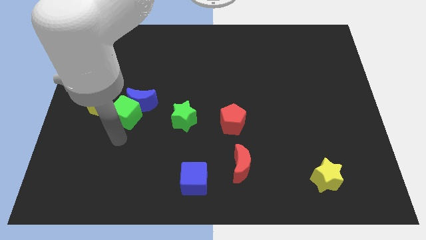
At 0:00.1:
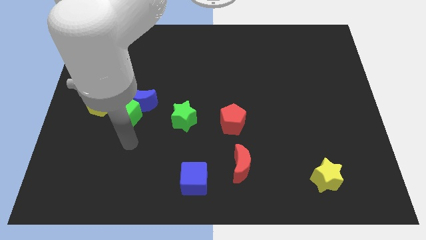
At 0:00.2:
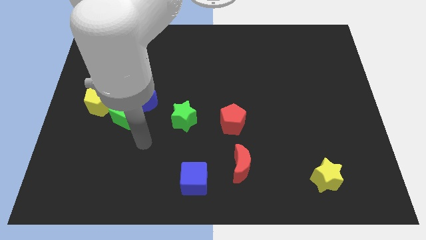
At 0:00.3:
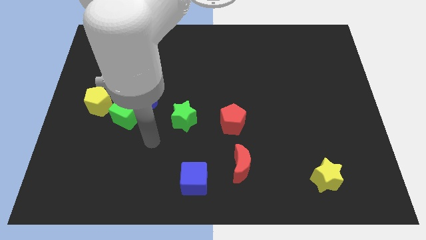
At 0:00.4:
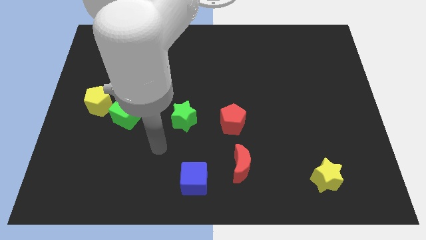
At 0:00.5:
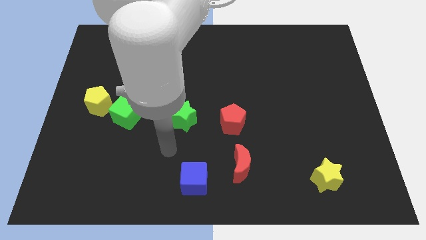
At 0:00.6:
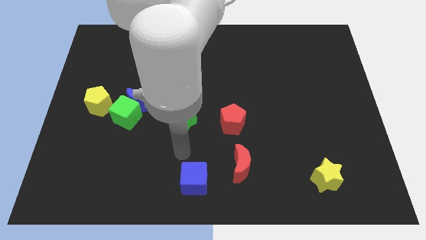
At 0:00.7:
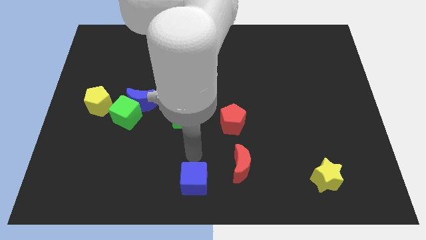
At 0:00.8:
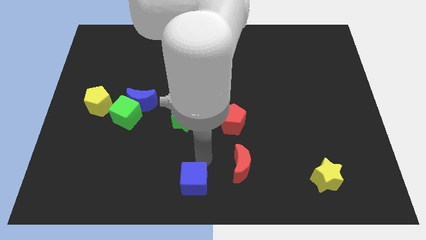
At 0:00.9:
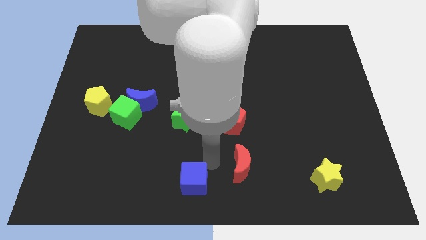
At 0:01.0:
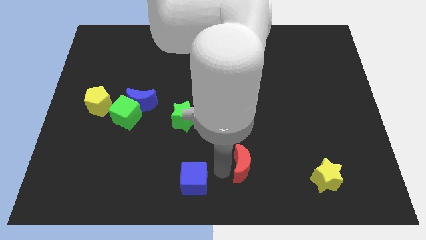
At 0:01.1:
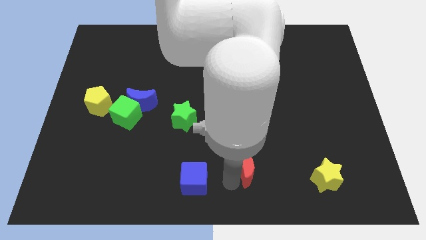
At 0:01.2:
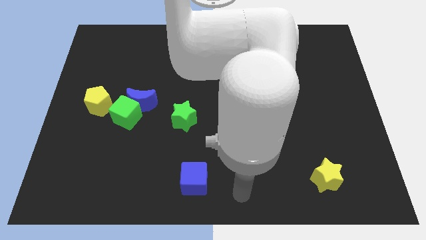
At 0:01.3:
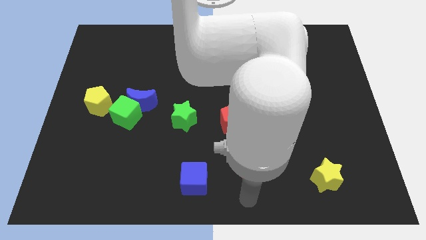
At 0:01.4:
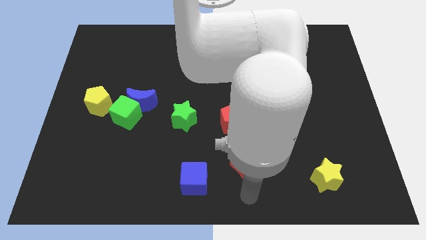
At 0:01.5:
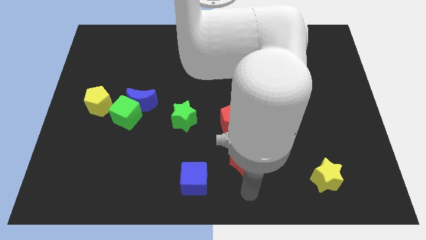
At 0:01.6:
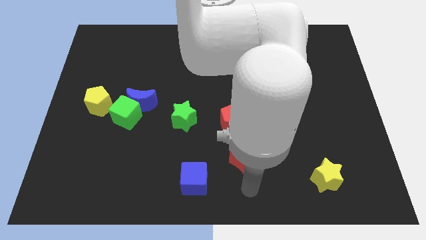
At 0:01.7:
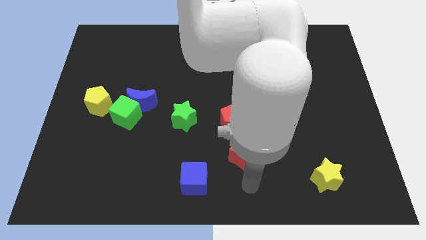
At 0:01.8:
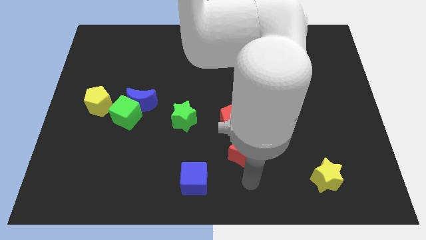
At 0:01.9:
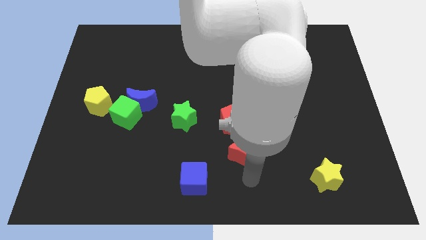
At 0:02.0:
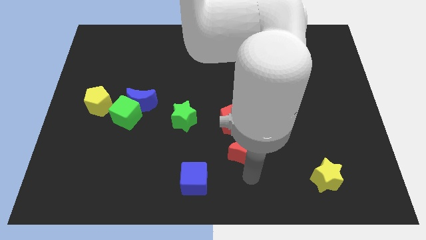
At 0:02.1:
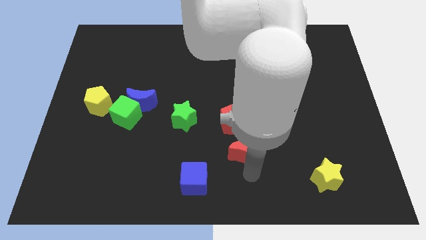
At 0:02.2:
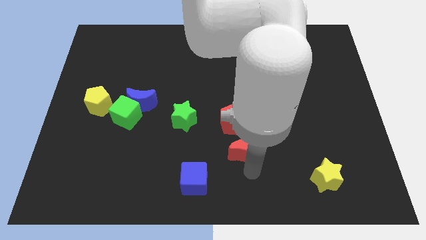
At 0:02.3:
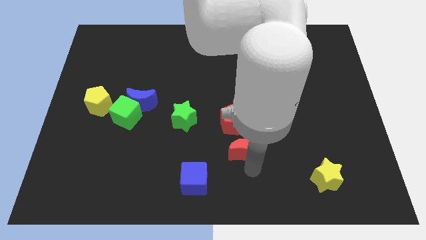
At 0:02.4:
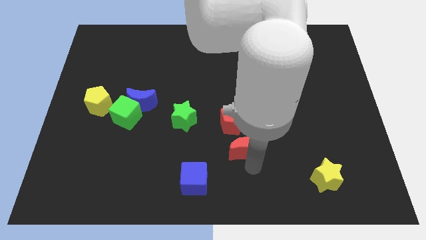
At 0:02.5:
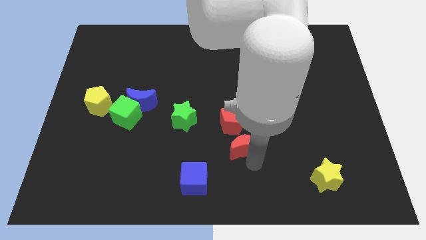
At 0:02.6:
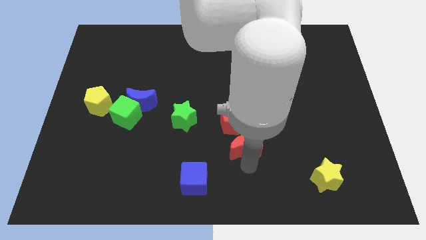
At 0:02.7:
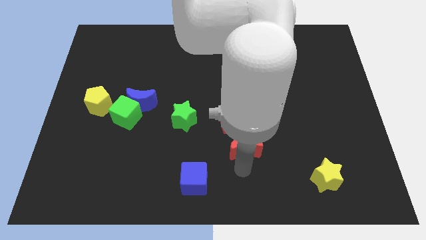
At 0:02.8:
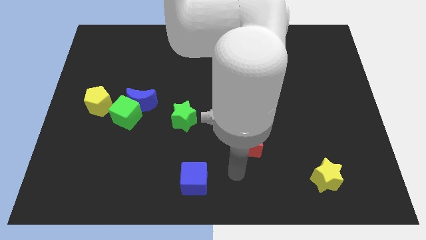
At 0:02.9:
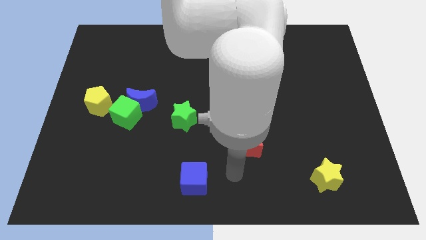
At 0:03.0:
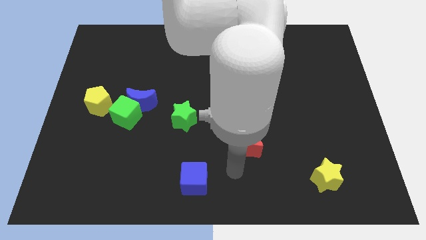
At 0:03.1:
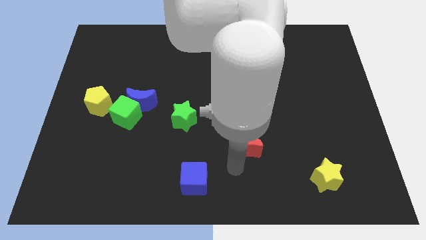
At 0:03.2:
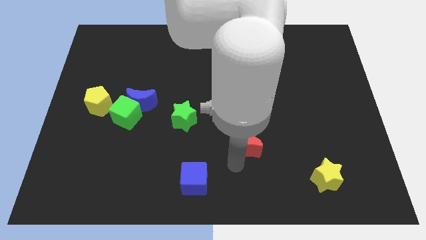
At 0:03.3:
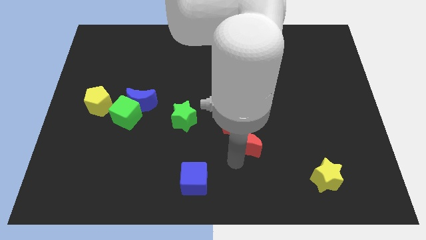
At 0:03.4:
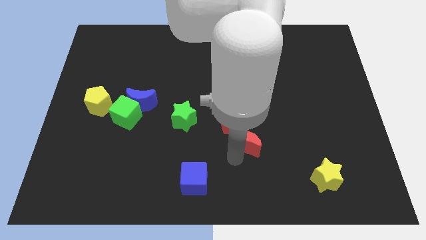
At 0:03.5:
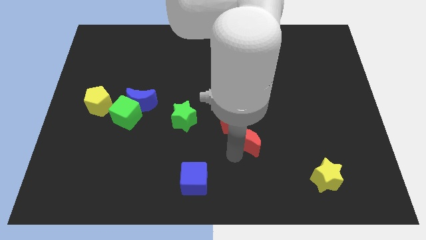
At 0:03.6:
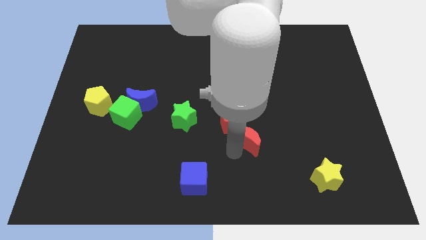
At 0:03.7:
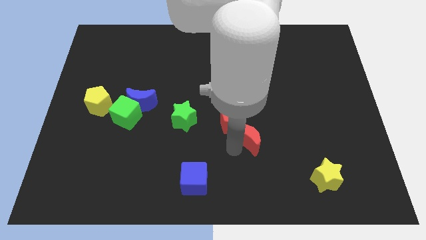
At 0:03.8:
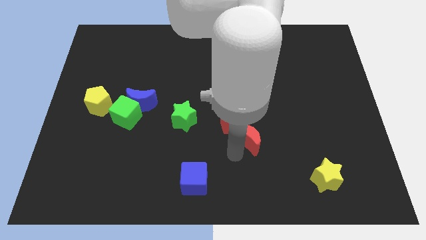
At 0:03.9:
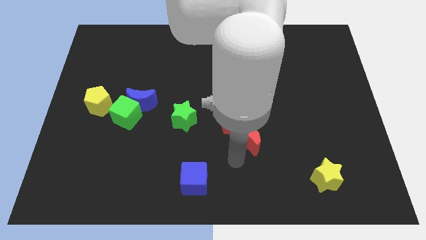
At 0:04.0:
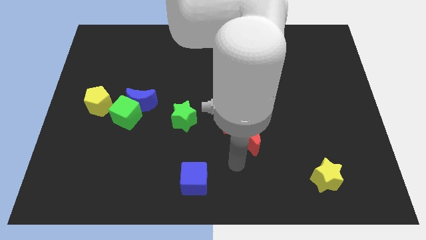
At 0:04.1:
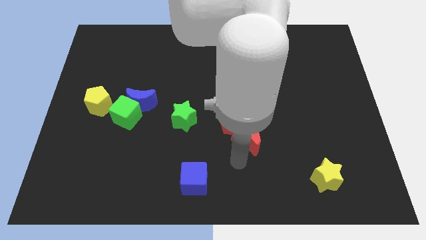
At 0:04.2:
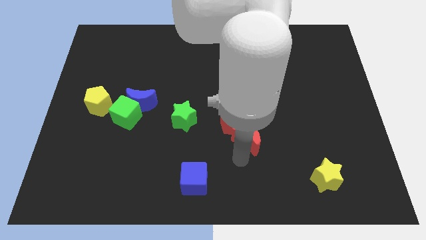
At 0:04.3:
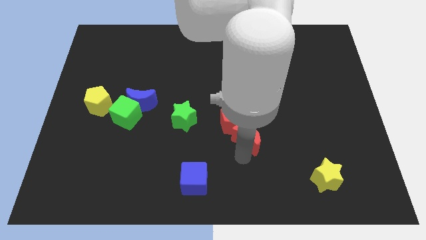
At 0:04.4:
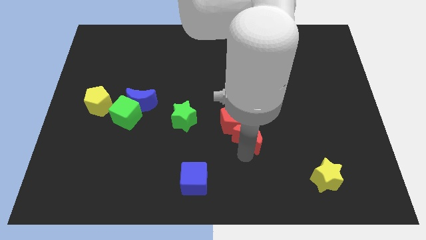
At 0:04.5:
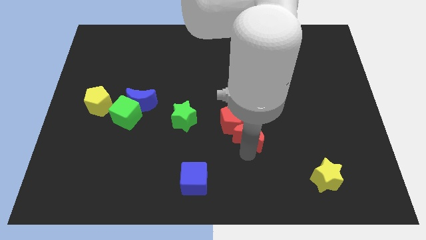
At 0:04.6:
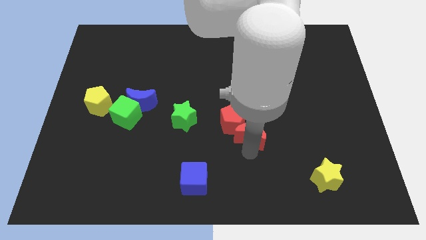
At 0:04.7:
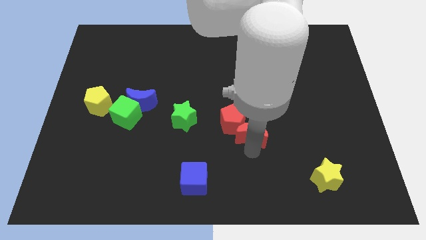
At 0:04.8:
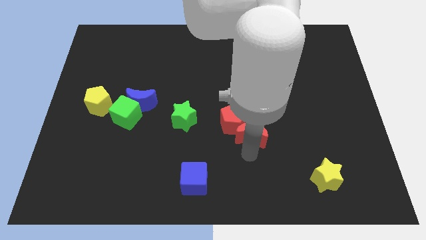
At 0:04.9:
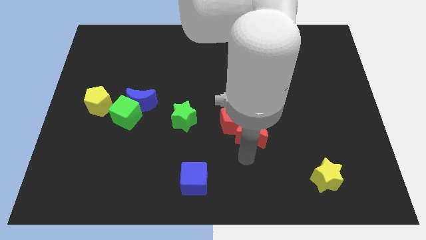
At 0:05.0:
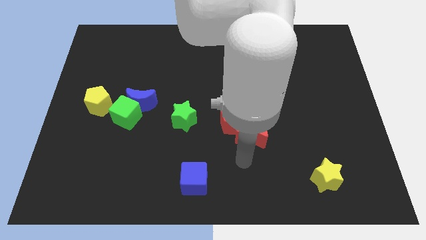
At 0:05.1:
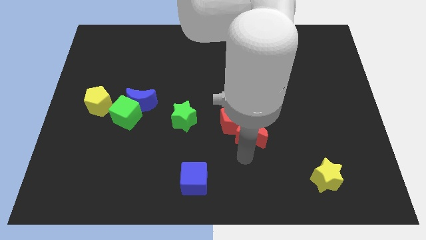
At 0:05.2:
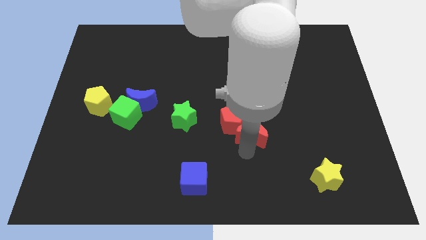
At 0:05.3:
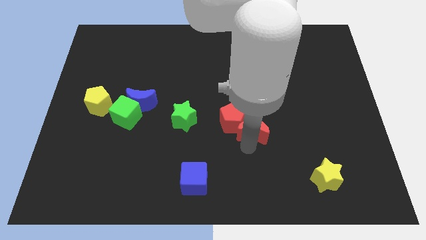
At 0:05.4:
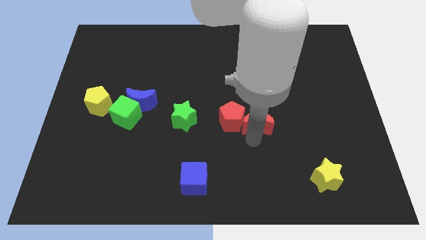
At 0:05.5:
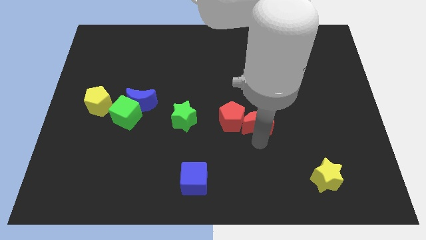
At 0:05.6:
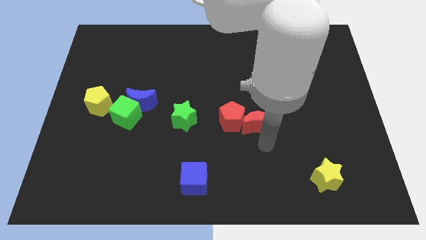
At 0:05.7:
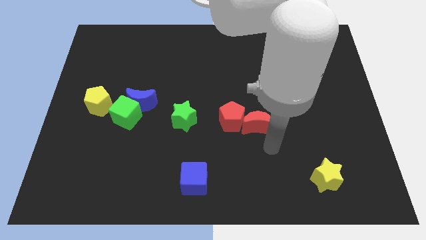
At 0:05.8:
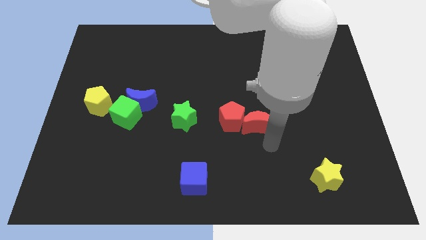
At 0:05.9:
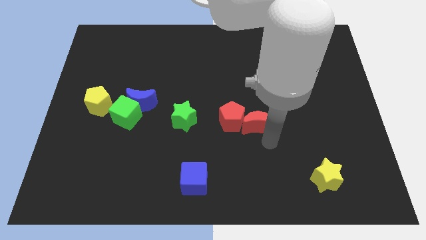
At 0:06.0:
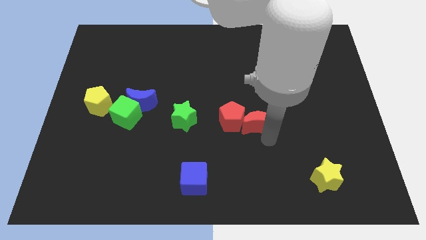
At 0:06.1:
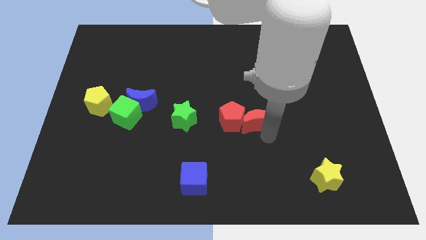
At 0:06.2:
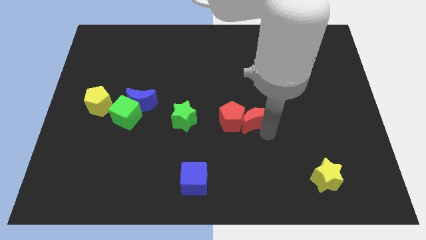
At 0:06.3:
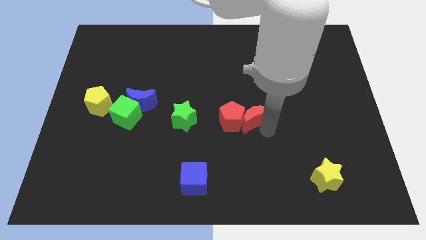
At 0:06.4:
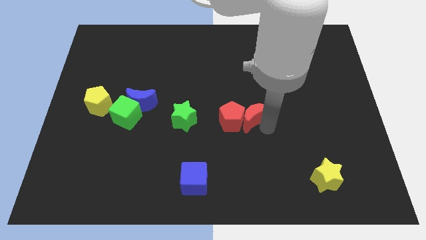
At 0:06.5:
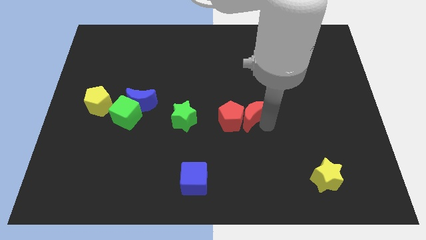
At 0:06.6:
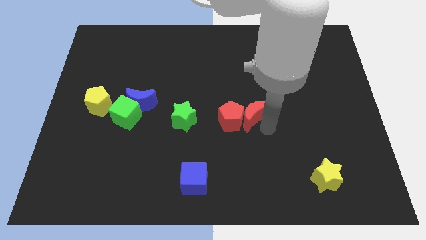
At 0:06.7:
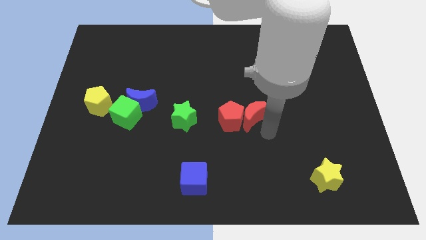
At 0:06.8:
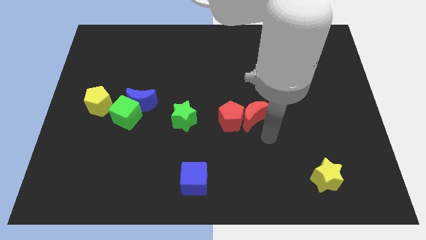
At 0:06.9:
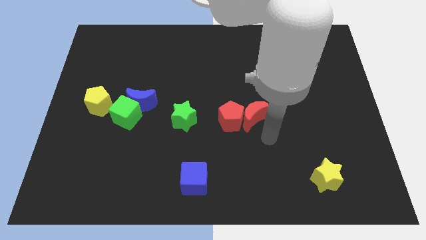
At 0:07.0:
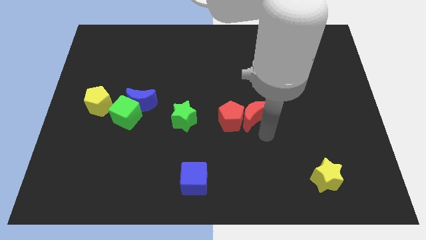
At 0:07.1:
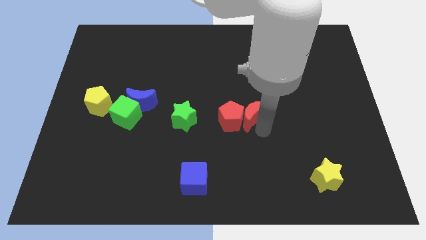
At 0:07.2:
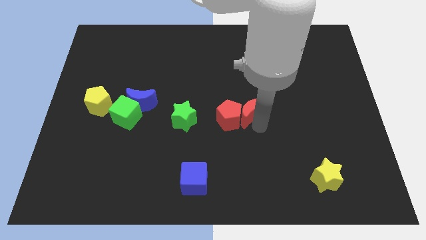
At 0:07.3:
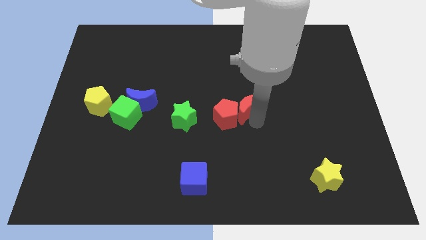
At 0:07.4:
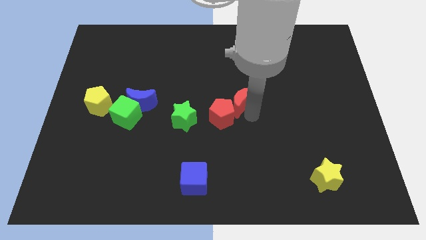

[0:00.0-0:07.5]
slide the red moon above the red pentagon
